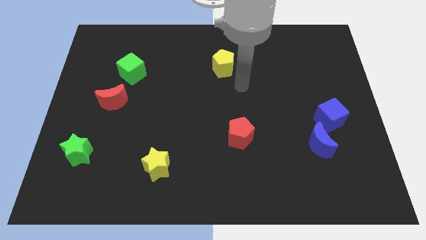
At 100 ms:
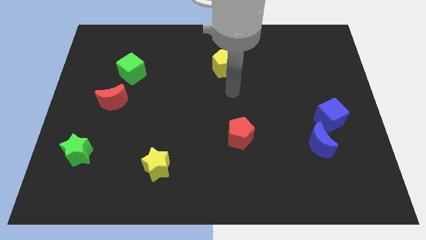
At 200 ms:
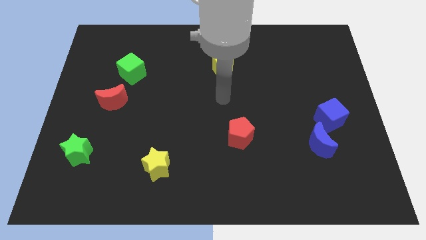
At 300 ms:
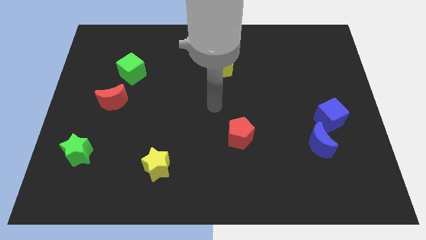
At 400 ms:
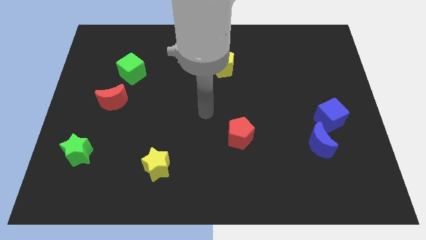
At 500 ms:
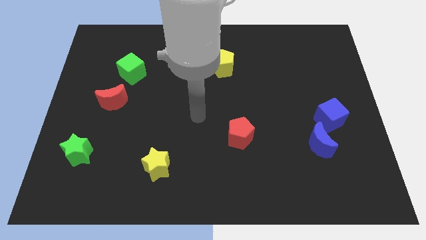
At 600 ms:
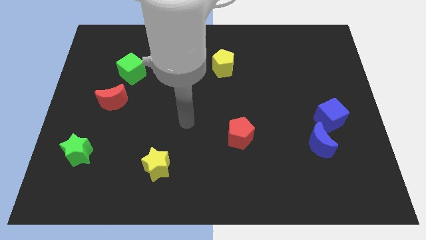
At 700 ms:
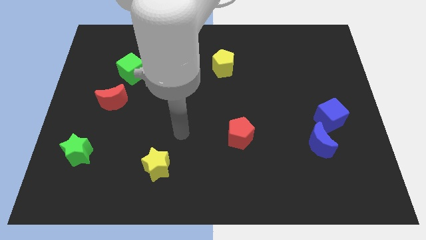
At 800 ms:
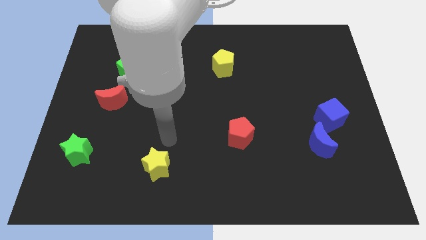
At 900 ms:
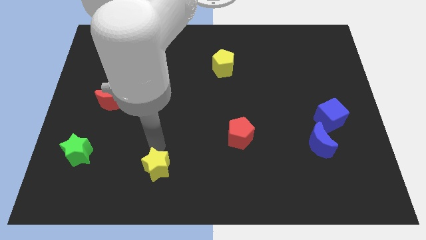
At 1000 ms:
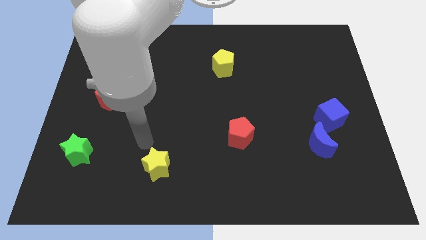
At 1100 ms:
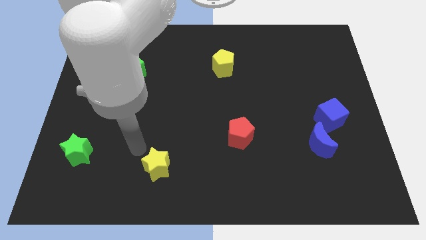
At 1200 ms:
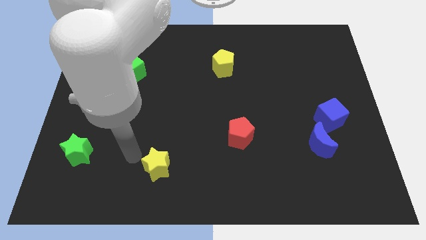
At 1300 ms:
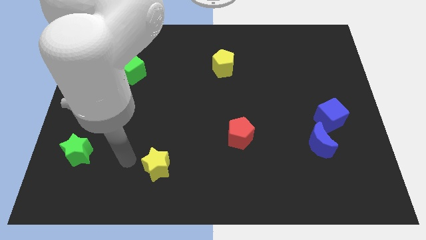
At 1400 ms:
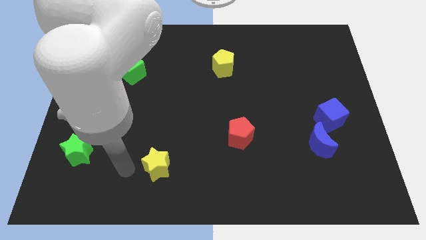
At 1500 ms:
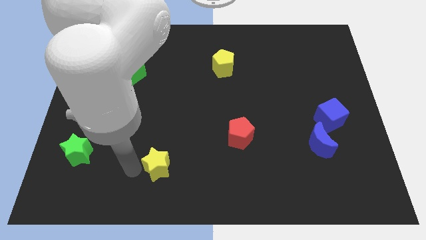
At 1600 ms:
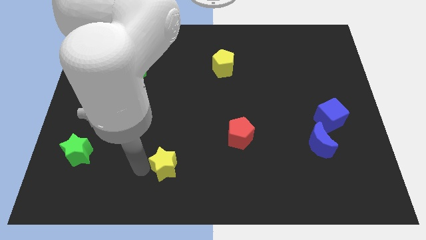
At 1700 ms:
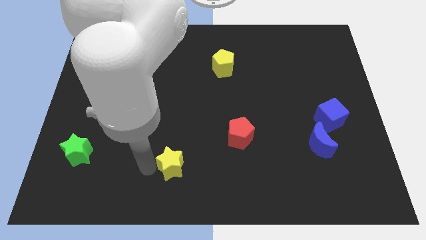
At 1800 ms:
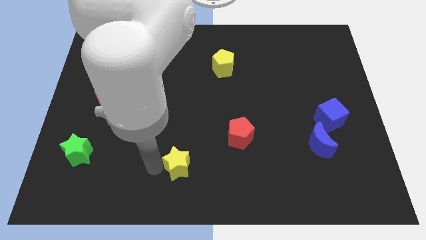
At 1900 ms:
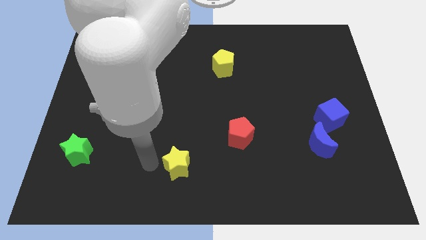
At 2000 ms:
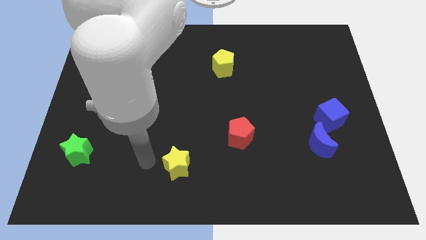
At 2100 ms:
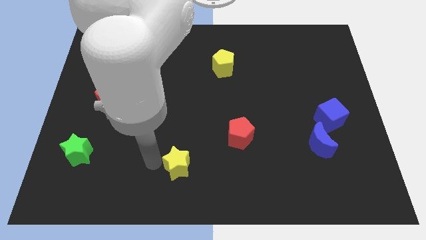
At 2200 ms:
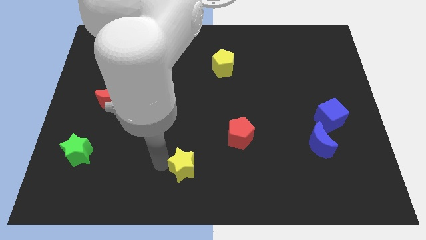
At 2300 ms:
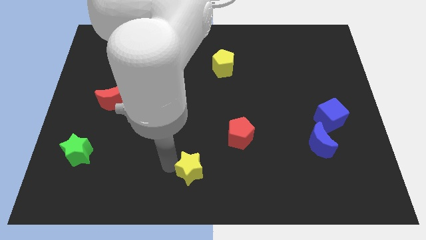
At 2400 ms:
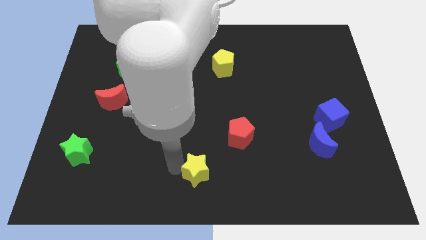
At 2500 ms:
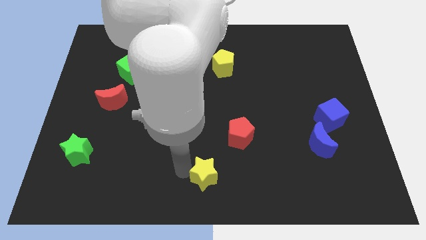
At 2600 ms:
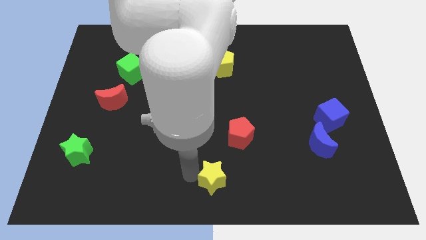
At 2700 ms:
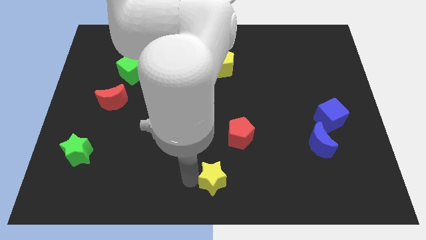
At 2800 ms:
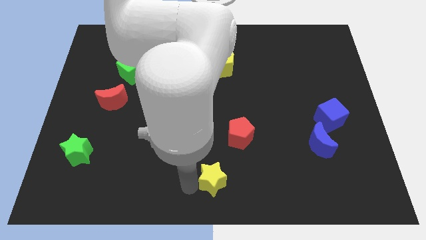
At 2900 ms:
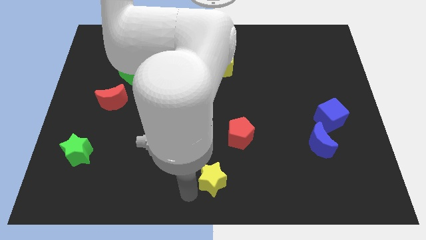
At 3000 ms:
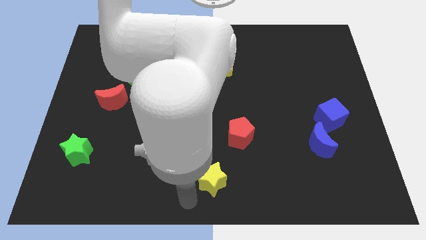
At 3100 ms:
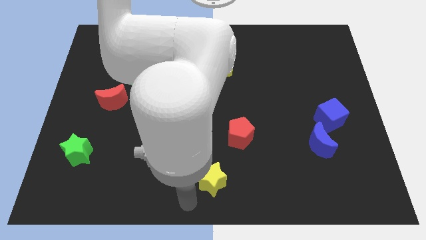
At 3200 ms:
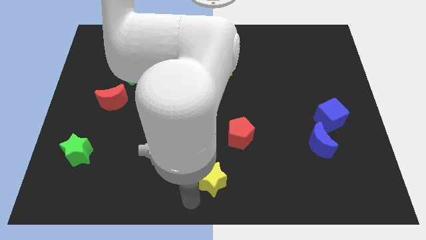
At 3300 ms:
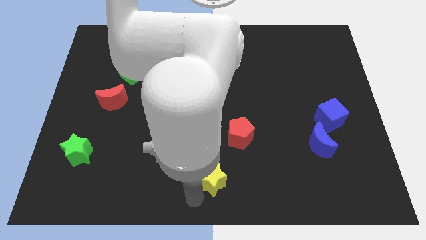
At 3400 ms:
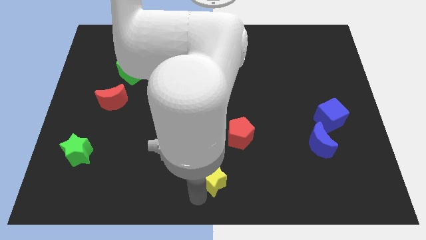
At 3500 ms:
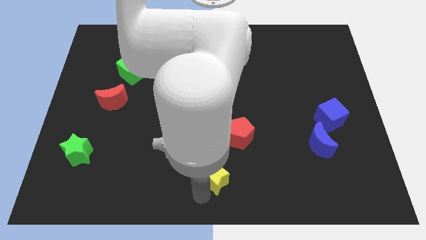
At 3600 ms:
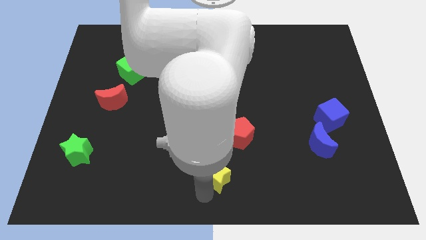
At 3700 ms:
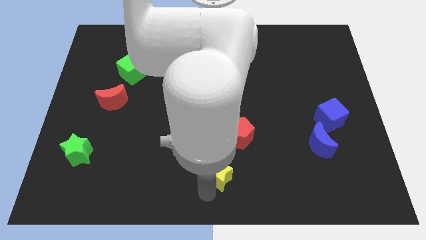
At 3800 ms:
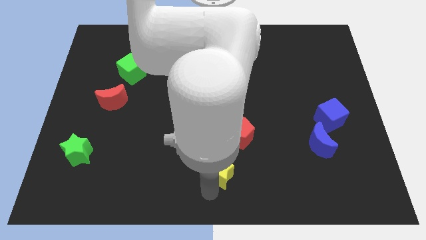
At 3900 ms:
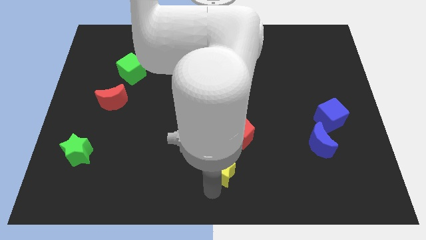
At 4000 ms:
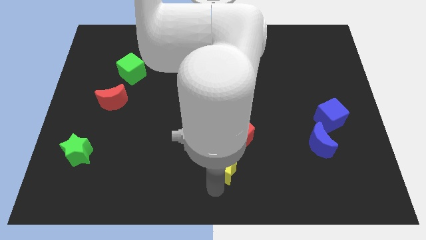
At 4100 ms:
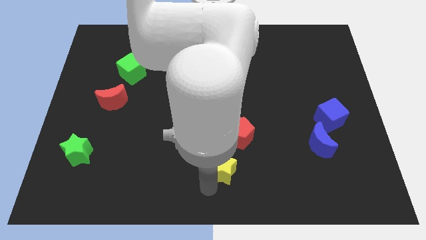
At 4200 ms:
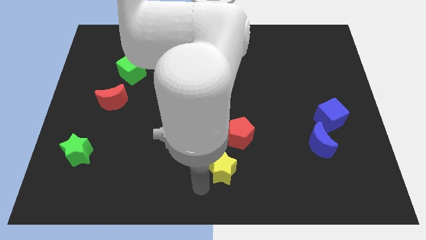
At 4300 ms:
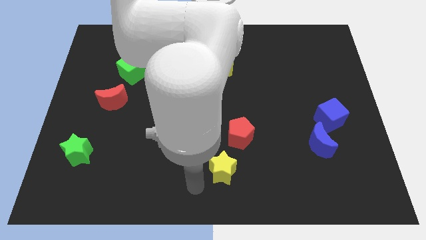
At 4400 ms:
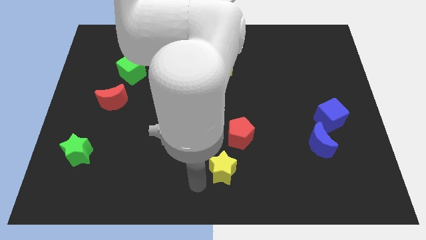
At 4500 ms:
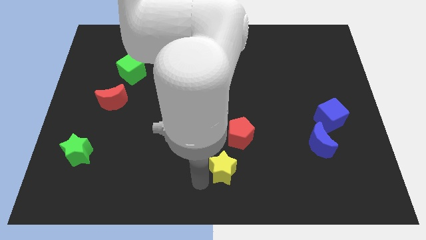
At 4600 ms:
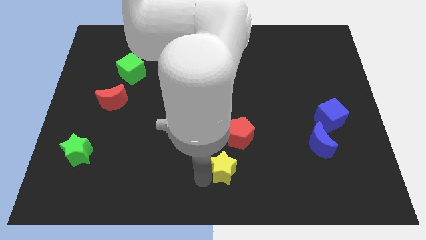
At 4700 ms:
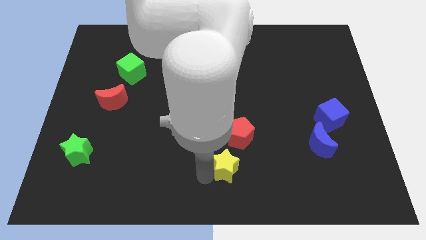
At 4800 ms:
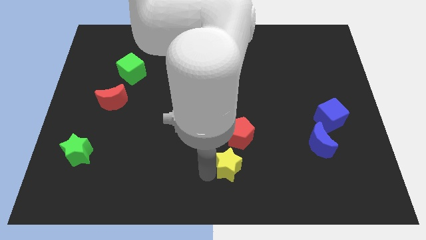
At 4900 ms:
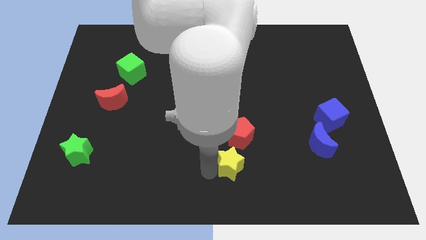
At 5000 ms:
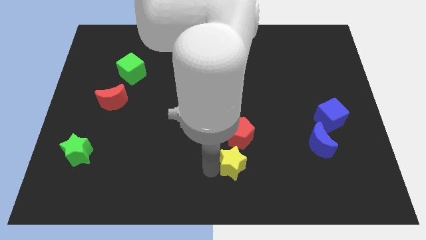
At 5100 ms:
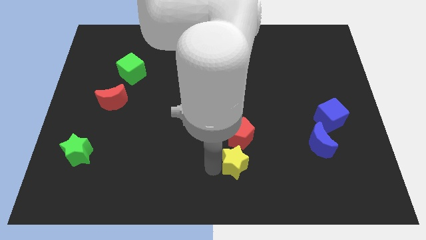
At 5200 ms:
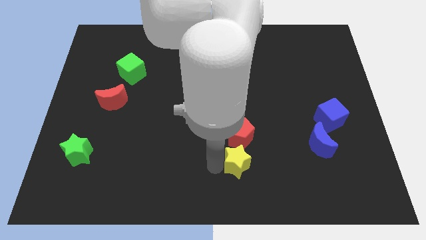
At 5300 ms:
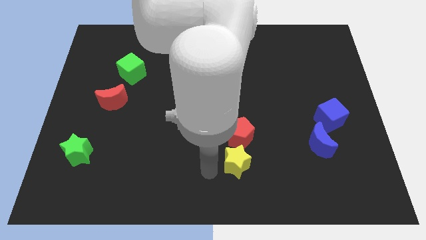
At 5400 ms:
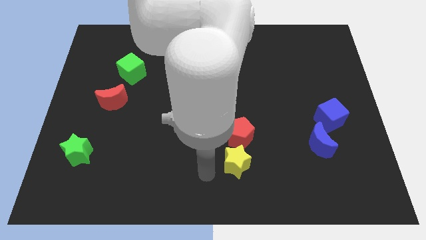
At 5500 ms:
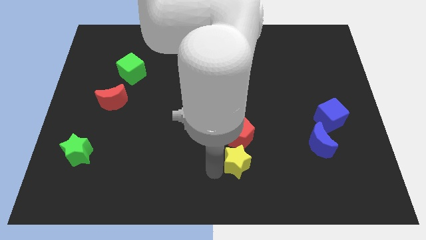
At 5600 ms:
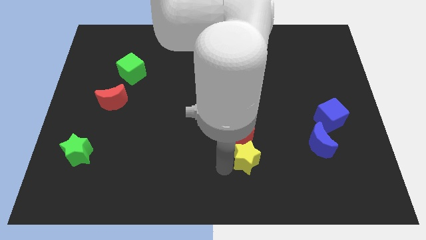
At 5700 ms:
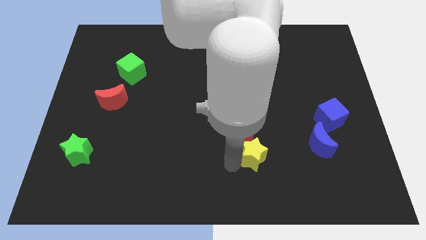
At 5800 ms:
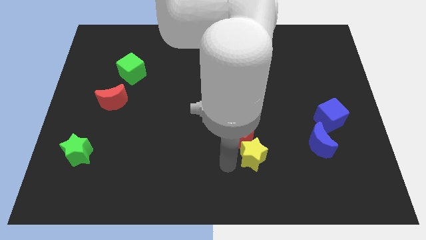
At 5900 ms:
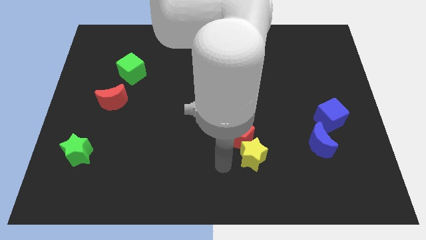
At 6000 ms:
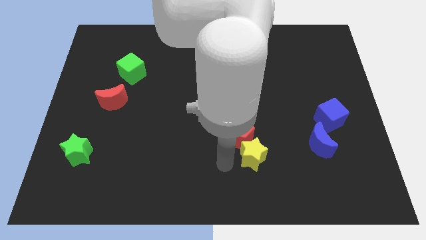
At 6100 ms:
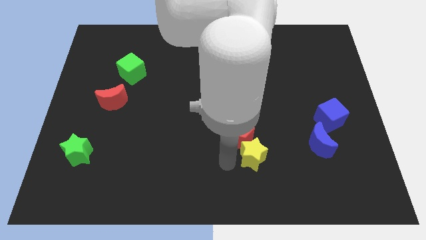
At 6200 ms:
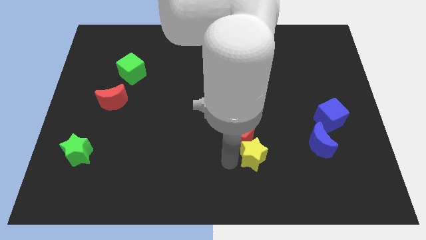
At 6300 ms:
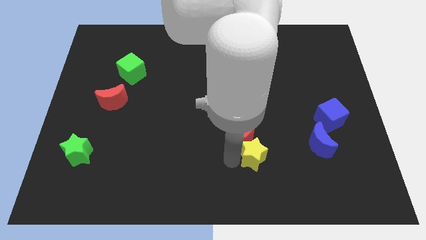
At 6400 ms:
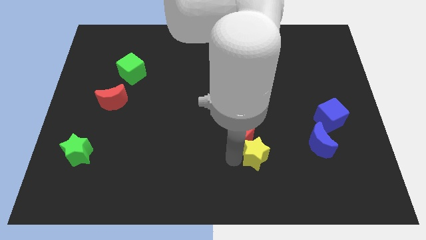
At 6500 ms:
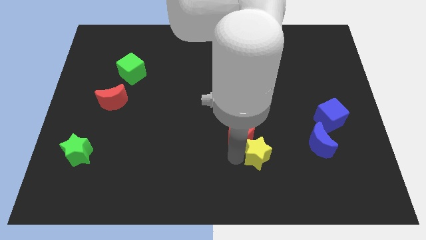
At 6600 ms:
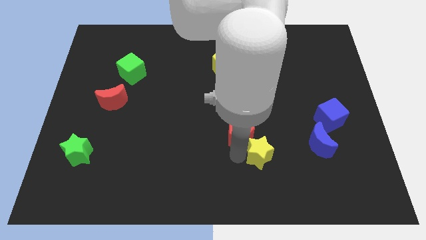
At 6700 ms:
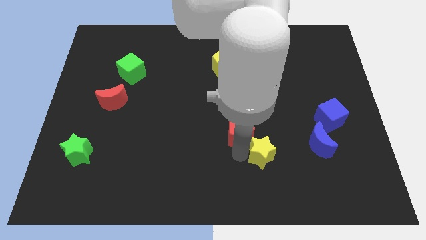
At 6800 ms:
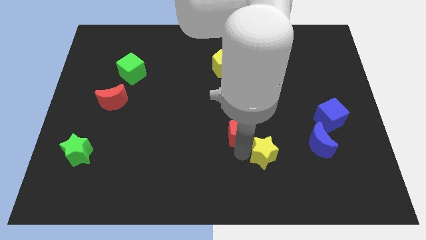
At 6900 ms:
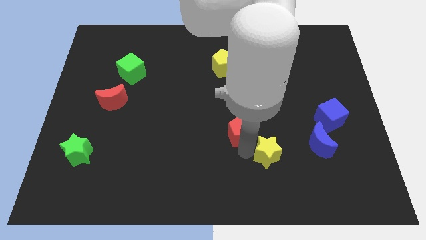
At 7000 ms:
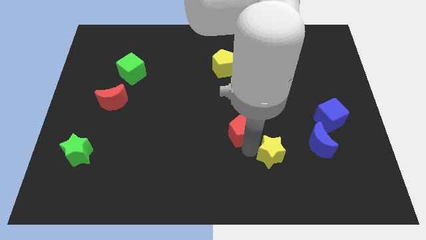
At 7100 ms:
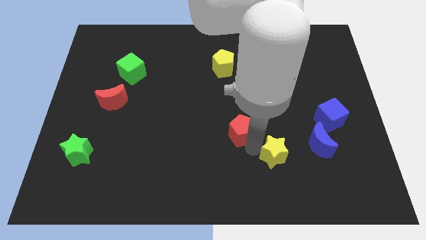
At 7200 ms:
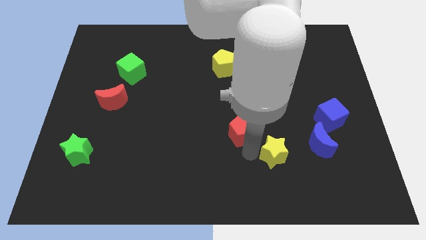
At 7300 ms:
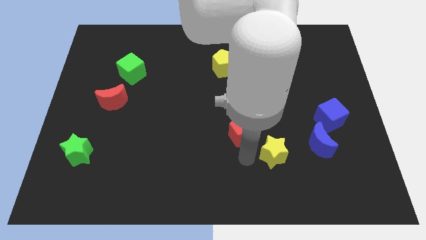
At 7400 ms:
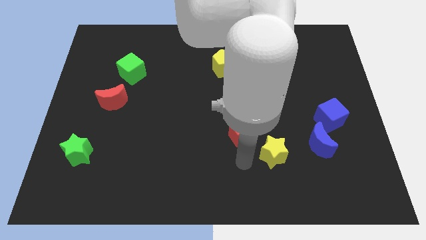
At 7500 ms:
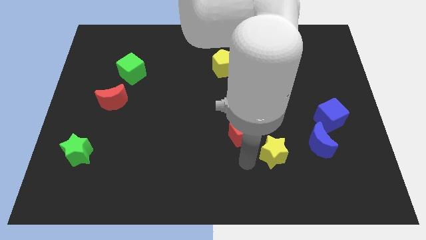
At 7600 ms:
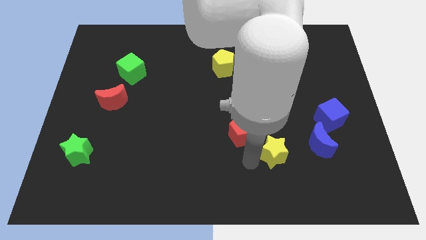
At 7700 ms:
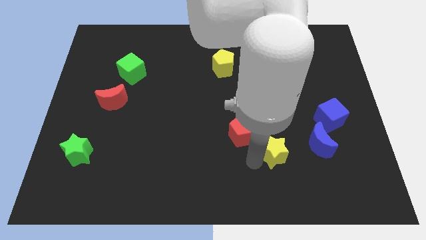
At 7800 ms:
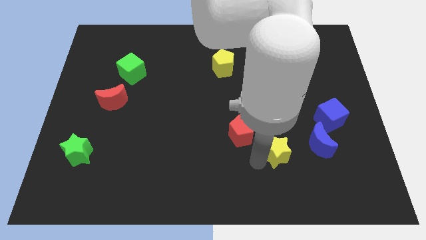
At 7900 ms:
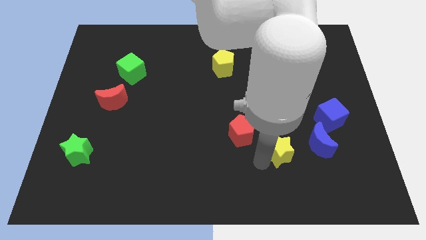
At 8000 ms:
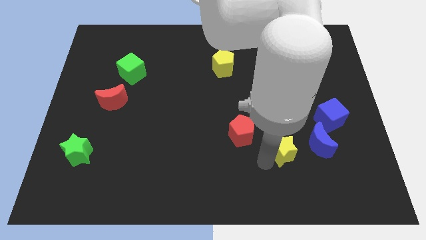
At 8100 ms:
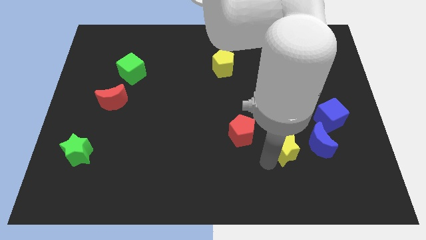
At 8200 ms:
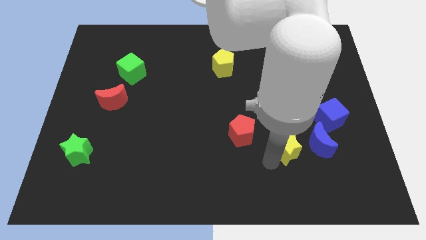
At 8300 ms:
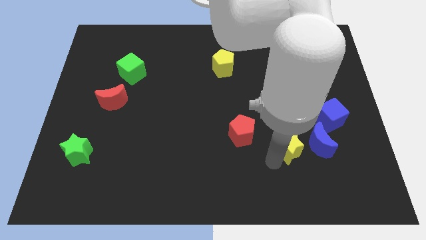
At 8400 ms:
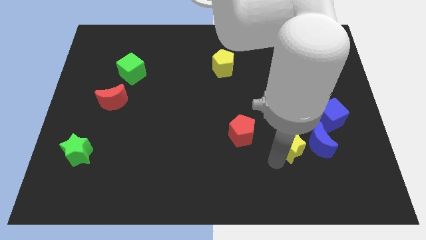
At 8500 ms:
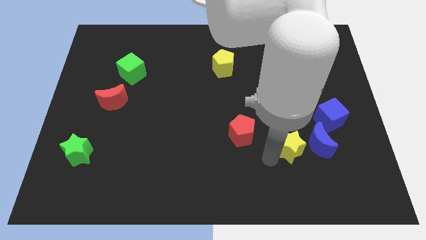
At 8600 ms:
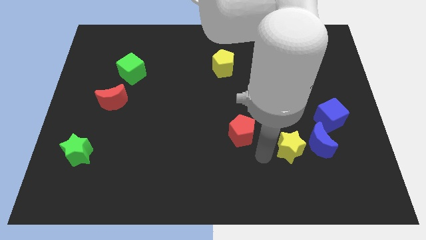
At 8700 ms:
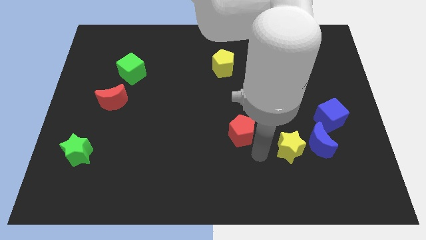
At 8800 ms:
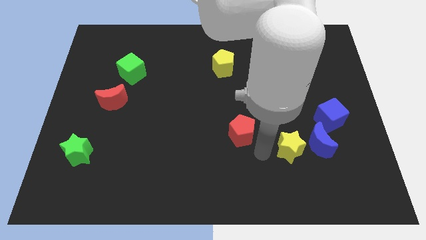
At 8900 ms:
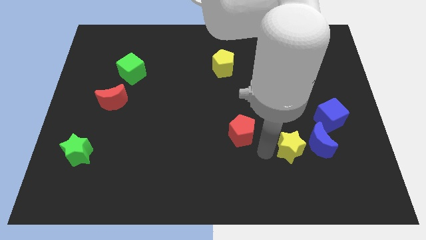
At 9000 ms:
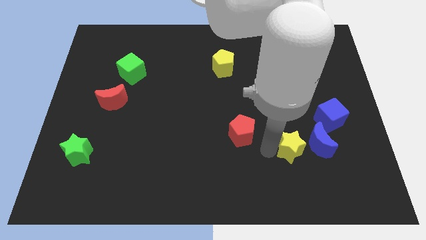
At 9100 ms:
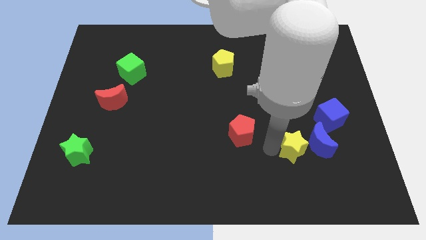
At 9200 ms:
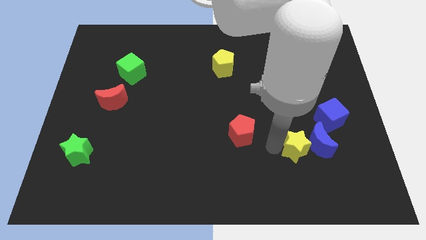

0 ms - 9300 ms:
push the yellow star close to the blue moon
